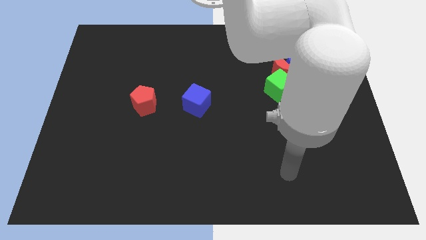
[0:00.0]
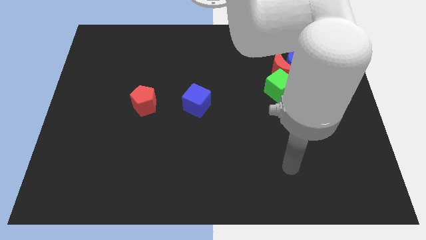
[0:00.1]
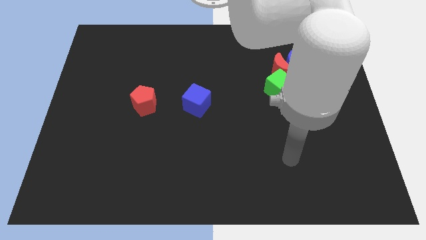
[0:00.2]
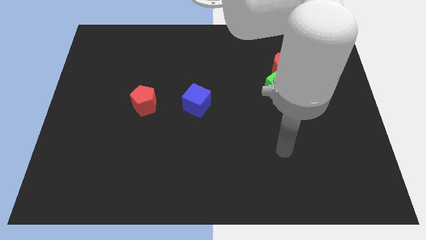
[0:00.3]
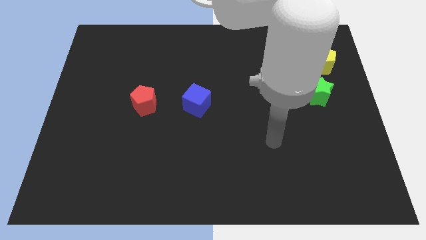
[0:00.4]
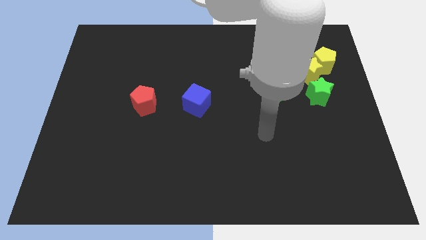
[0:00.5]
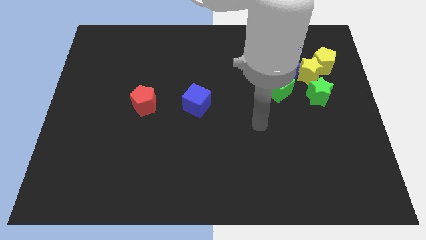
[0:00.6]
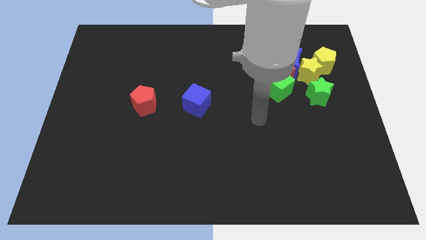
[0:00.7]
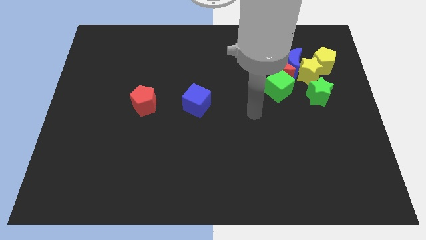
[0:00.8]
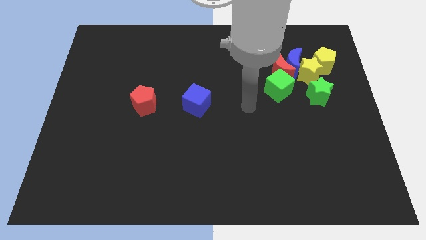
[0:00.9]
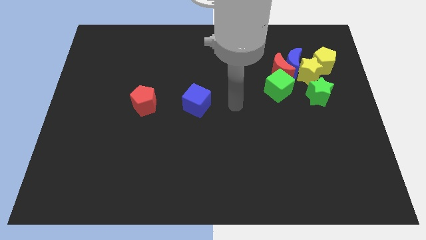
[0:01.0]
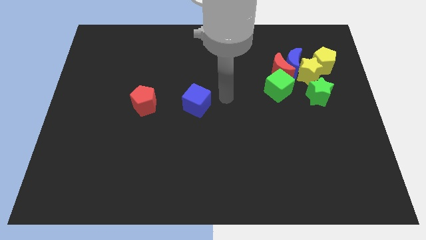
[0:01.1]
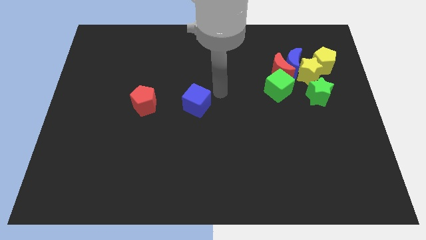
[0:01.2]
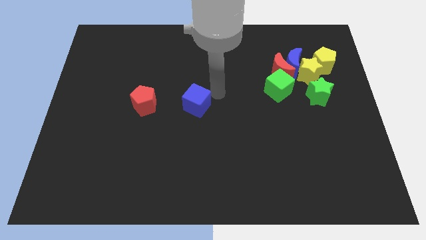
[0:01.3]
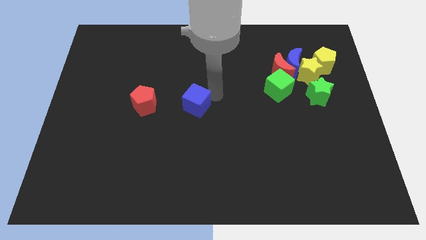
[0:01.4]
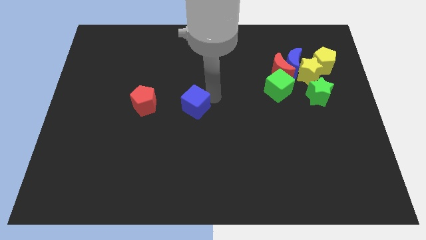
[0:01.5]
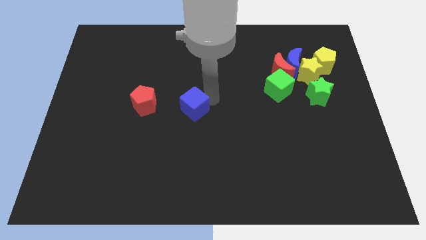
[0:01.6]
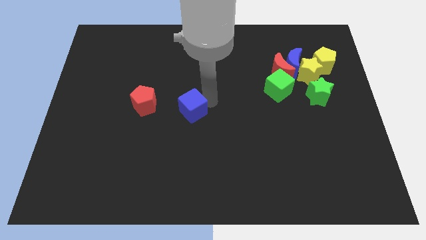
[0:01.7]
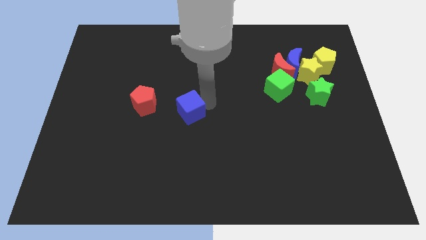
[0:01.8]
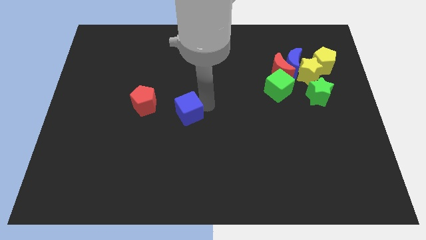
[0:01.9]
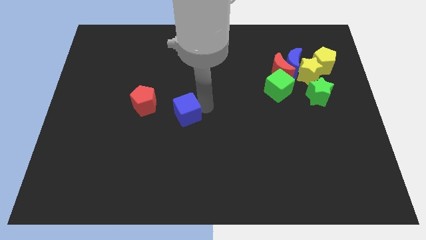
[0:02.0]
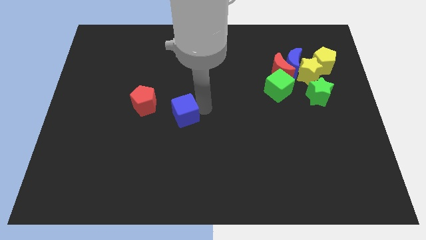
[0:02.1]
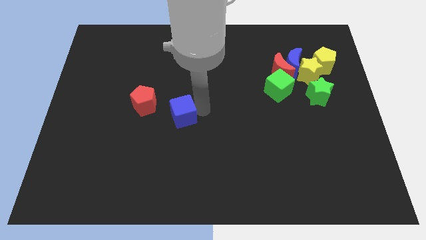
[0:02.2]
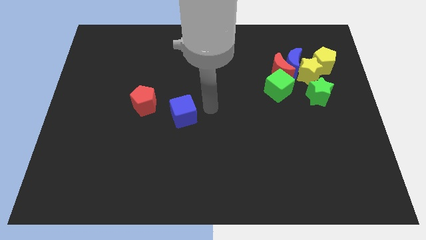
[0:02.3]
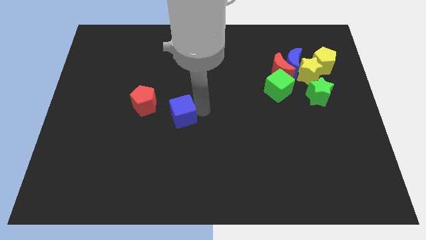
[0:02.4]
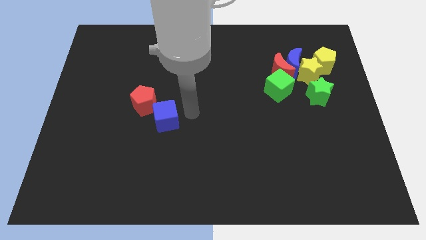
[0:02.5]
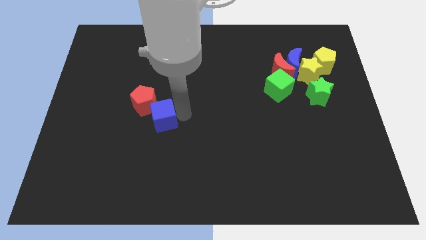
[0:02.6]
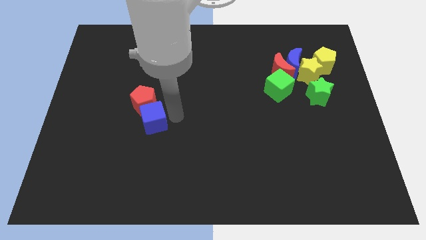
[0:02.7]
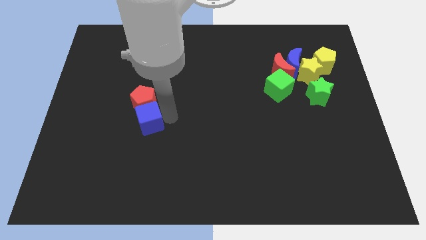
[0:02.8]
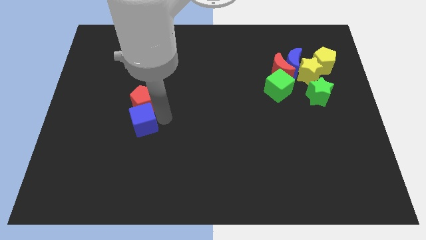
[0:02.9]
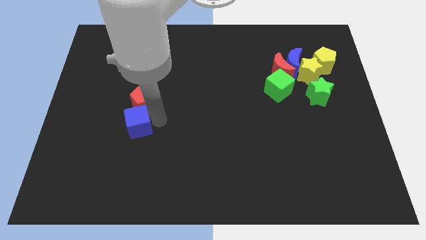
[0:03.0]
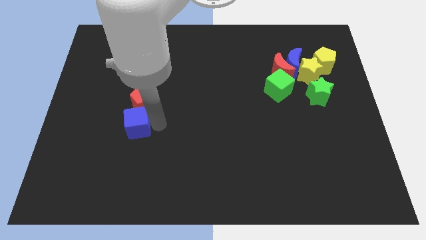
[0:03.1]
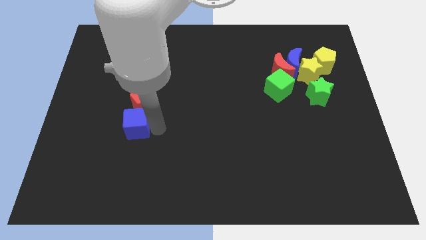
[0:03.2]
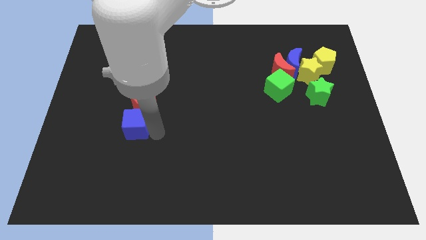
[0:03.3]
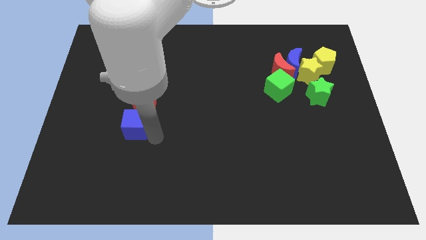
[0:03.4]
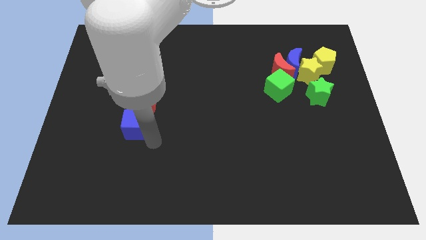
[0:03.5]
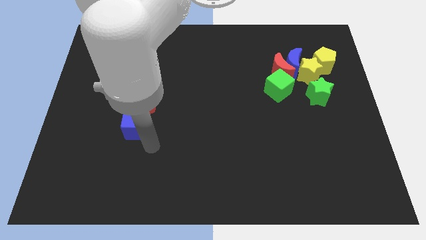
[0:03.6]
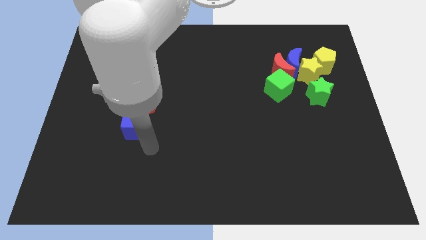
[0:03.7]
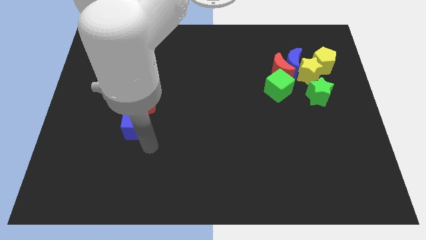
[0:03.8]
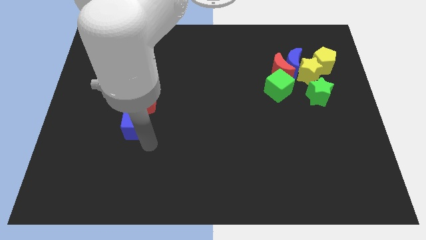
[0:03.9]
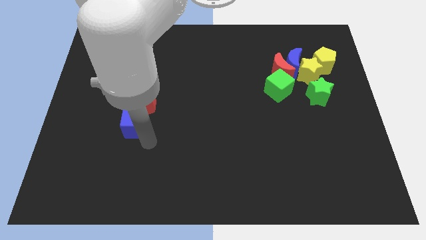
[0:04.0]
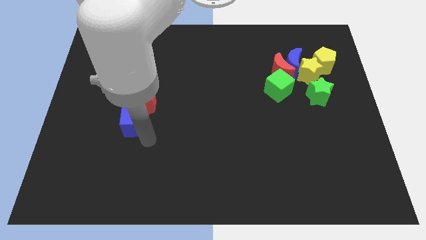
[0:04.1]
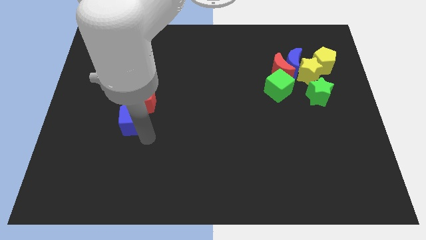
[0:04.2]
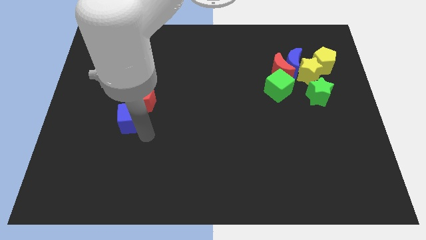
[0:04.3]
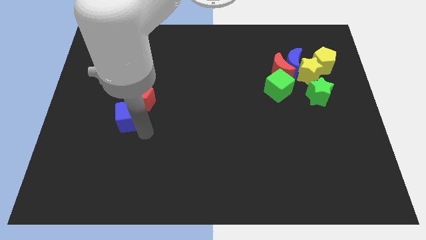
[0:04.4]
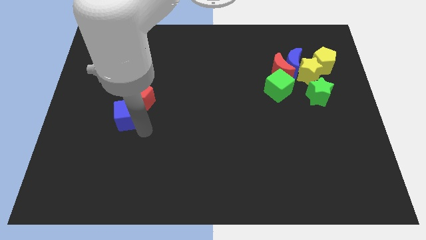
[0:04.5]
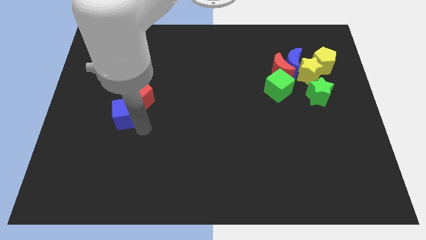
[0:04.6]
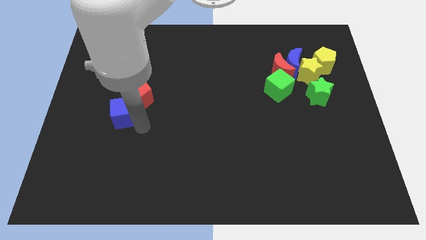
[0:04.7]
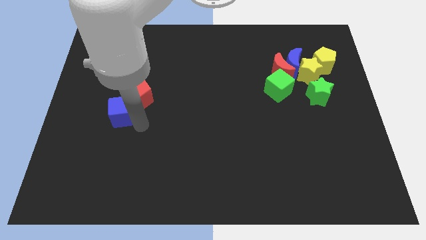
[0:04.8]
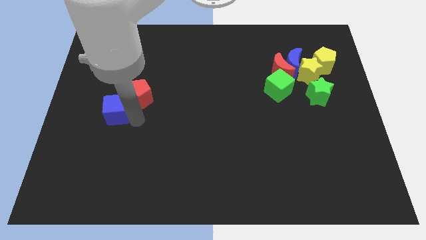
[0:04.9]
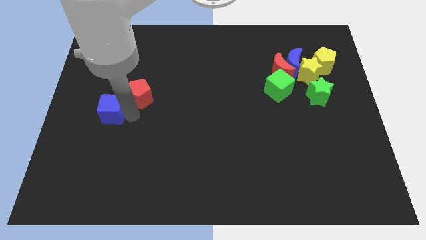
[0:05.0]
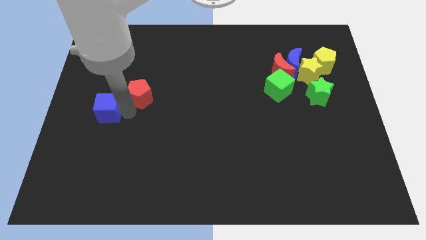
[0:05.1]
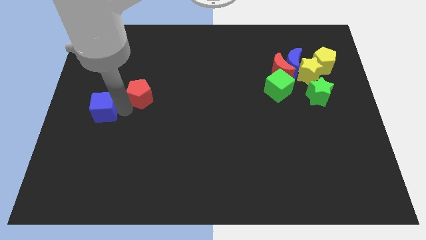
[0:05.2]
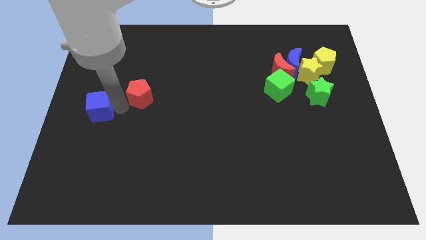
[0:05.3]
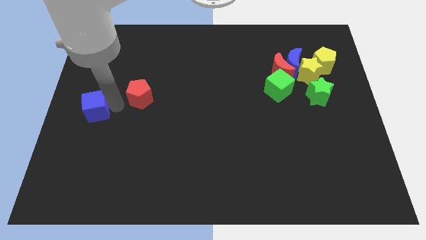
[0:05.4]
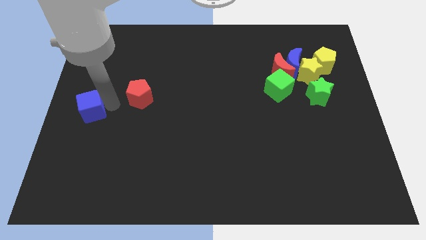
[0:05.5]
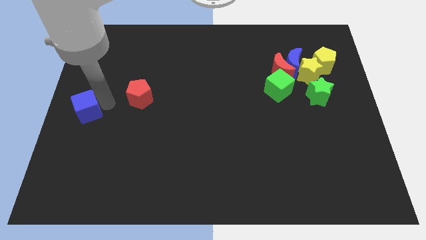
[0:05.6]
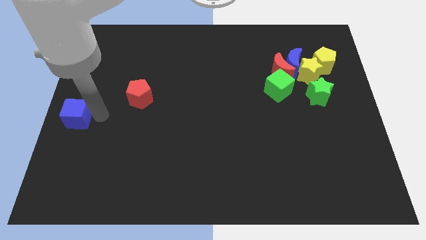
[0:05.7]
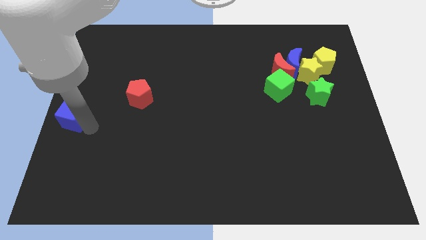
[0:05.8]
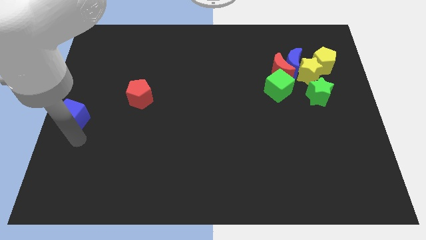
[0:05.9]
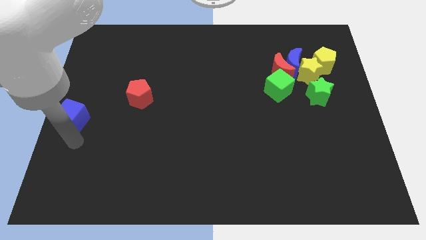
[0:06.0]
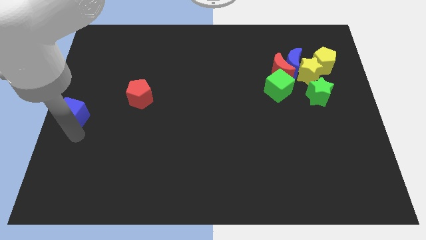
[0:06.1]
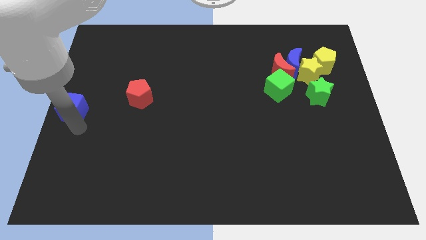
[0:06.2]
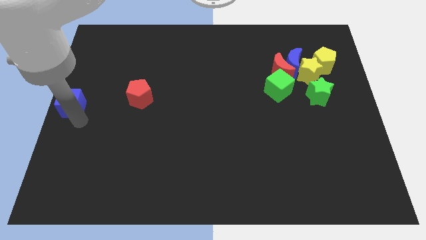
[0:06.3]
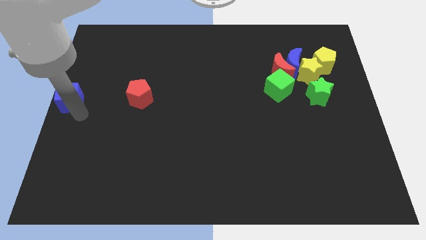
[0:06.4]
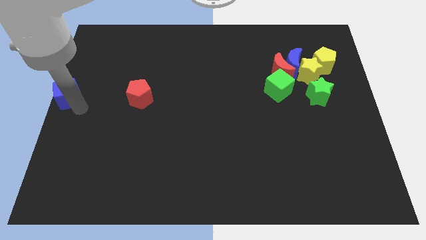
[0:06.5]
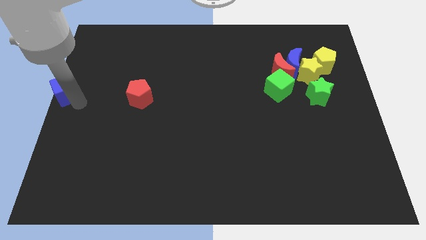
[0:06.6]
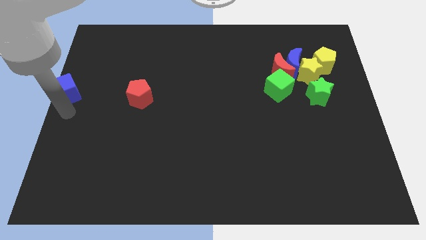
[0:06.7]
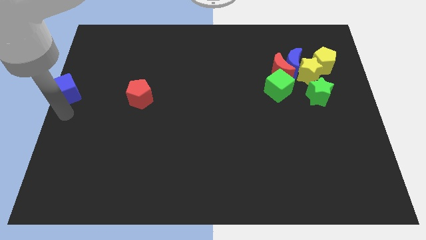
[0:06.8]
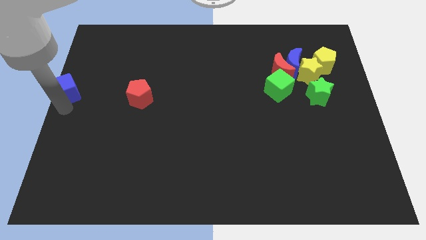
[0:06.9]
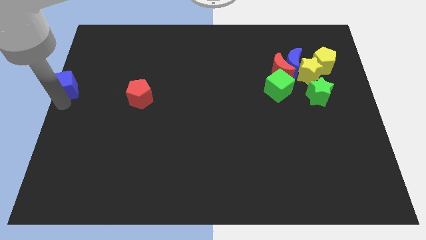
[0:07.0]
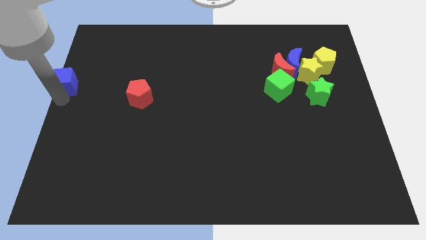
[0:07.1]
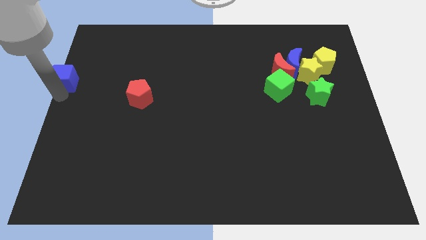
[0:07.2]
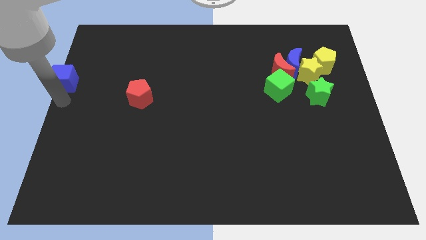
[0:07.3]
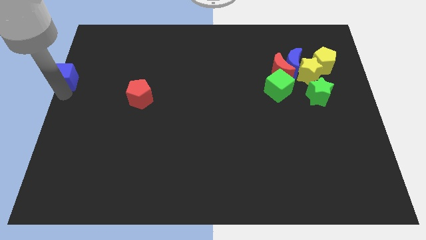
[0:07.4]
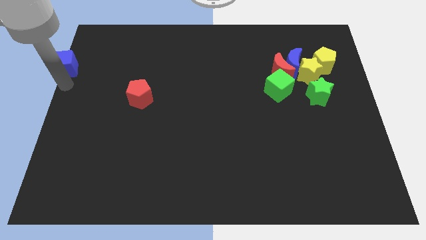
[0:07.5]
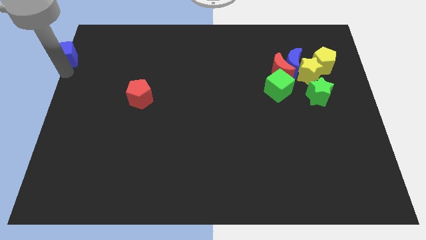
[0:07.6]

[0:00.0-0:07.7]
put the blue cube to the top left corner
